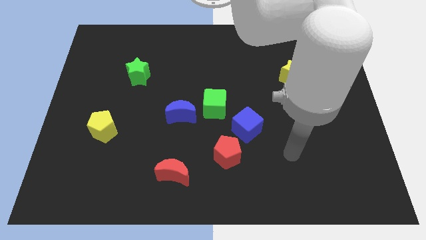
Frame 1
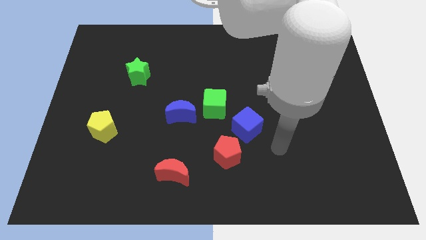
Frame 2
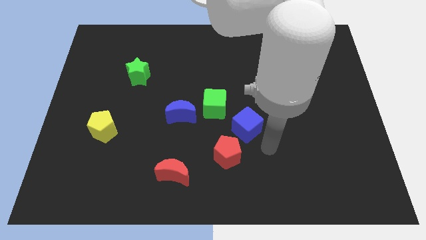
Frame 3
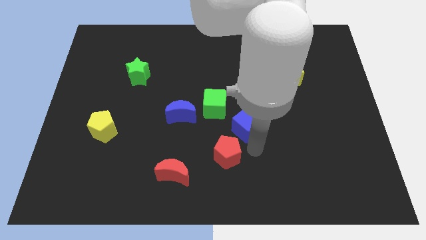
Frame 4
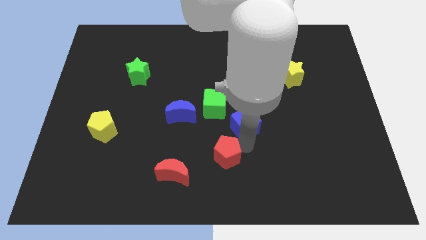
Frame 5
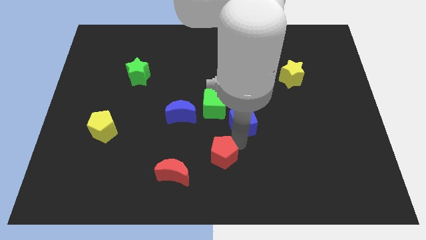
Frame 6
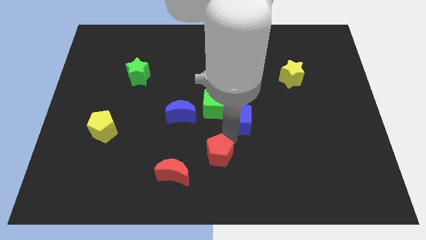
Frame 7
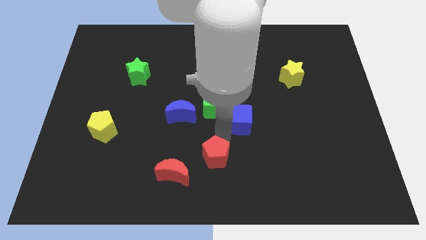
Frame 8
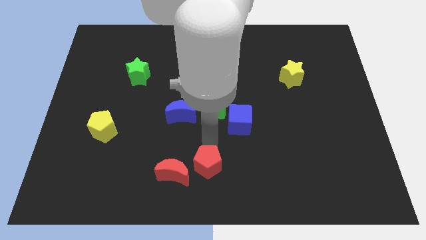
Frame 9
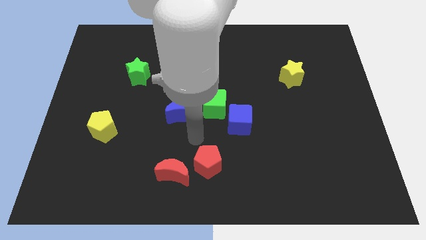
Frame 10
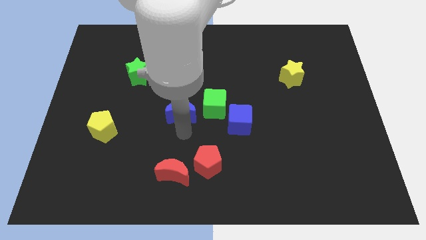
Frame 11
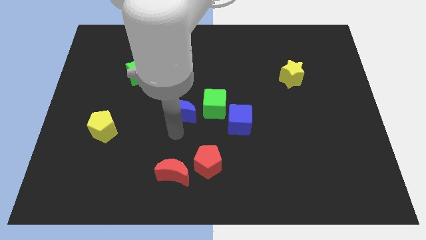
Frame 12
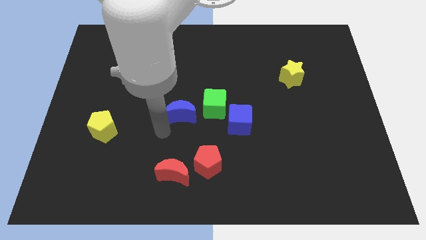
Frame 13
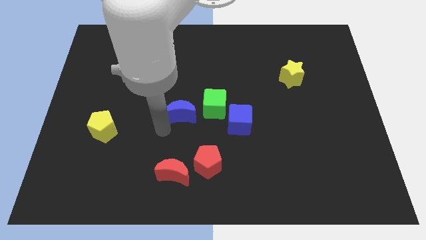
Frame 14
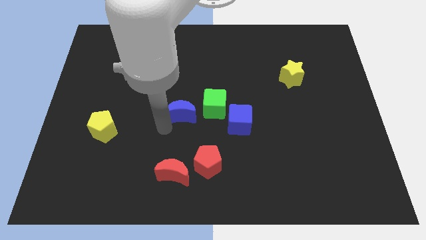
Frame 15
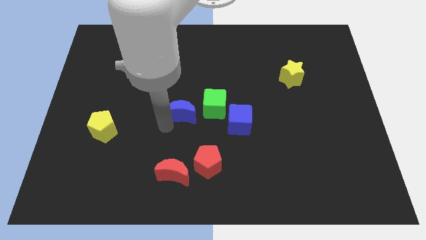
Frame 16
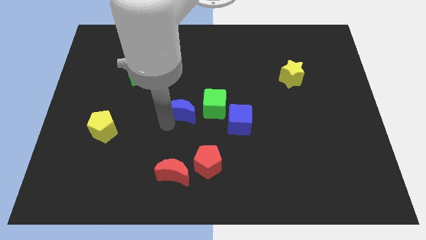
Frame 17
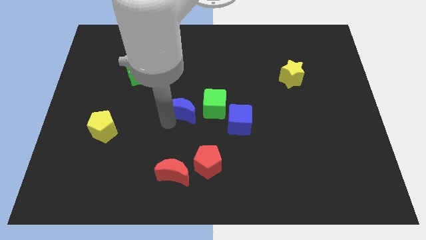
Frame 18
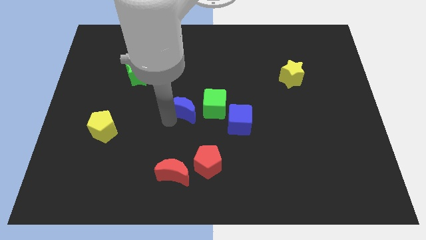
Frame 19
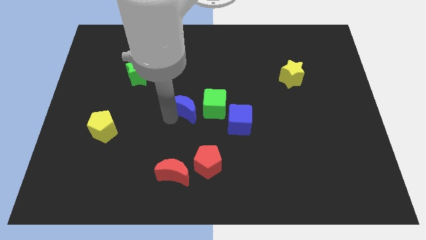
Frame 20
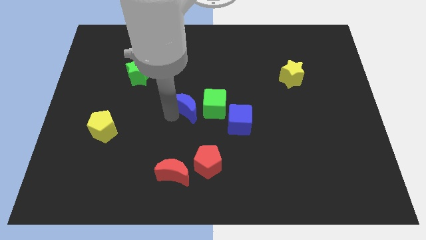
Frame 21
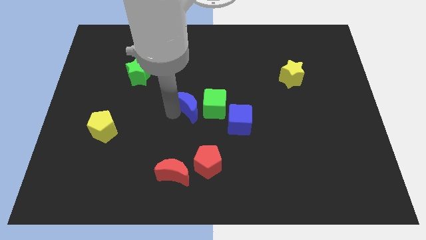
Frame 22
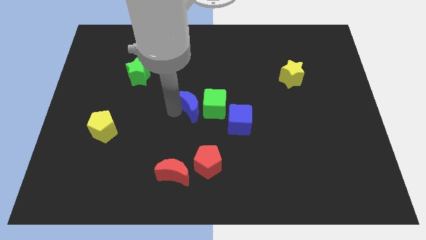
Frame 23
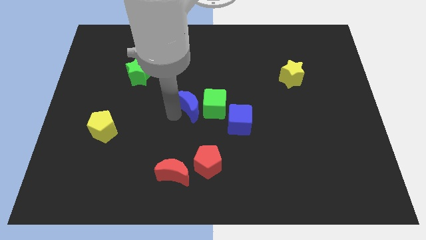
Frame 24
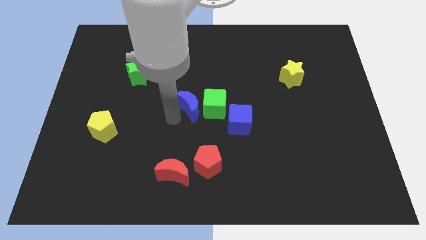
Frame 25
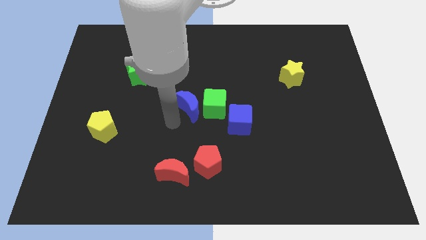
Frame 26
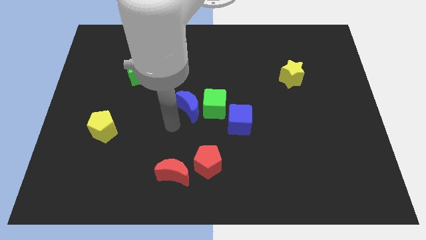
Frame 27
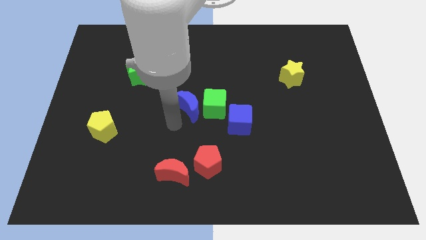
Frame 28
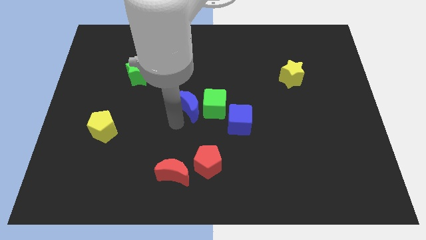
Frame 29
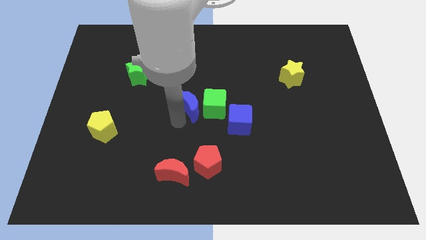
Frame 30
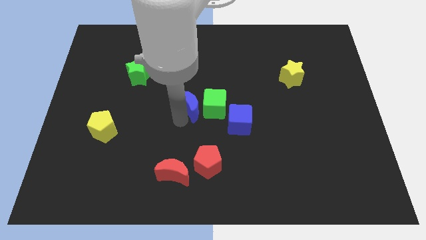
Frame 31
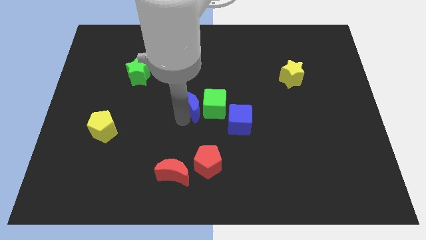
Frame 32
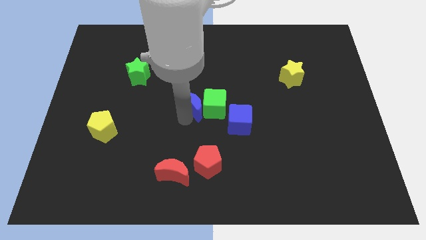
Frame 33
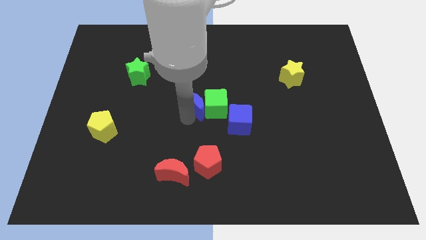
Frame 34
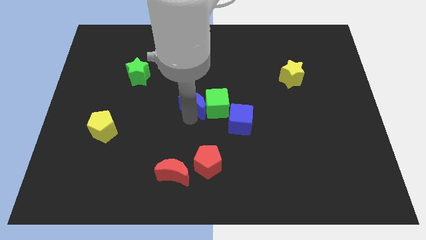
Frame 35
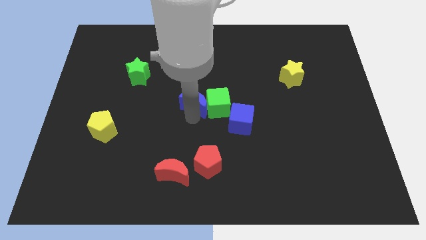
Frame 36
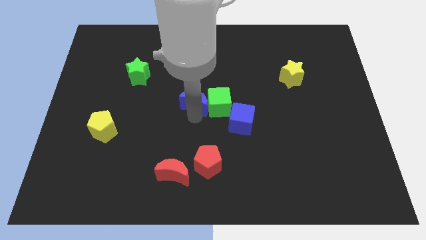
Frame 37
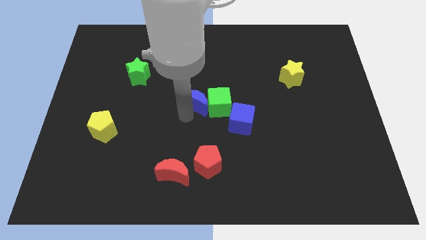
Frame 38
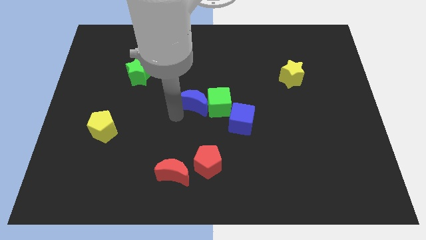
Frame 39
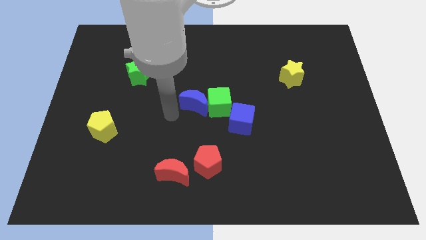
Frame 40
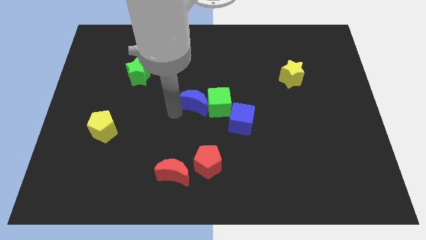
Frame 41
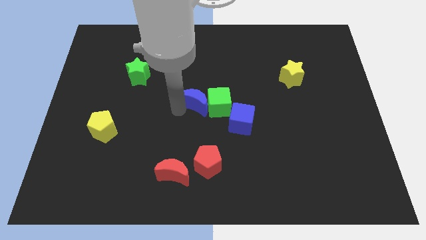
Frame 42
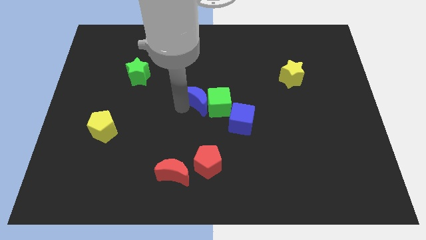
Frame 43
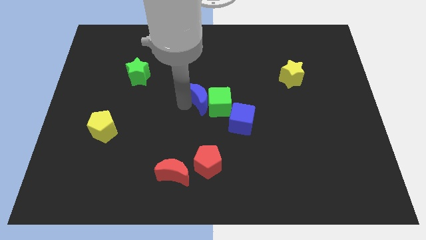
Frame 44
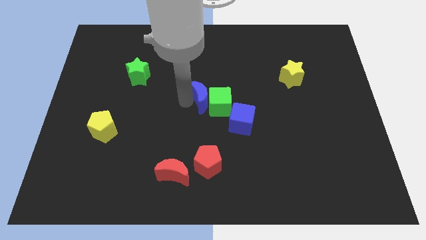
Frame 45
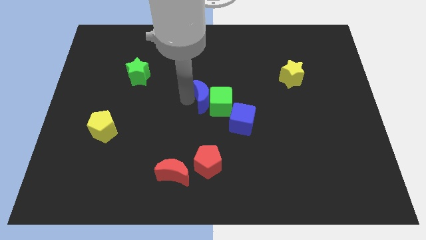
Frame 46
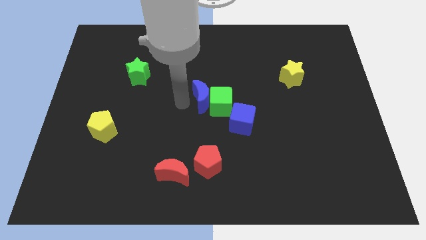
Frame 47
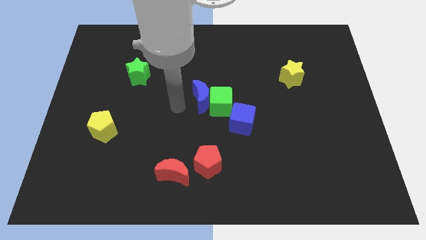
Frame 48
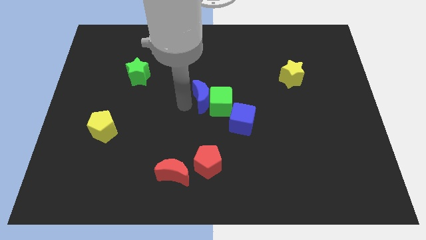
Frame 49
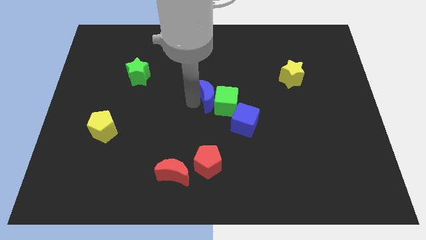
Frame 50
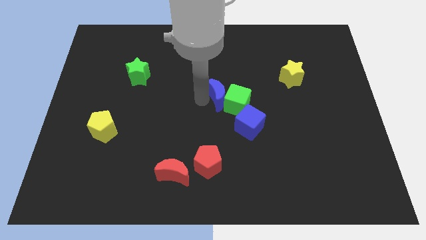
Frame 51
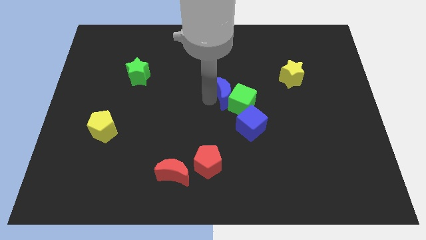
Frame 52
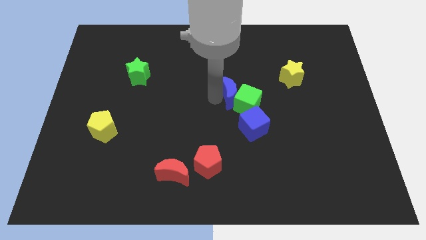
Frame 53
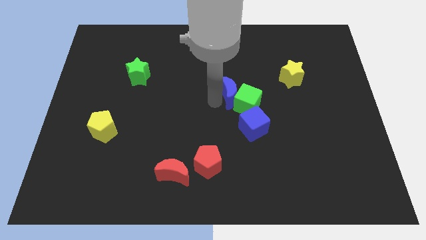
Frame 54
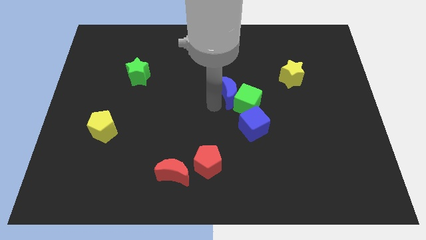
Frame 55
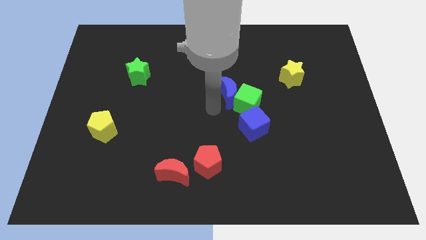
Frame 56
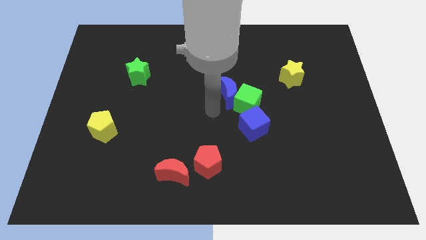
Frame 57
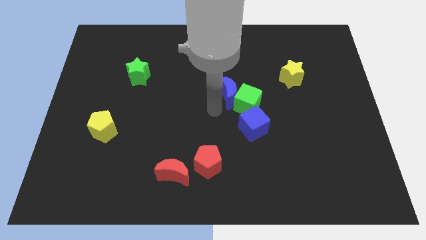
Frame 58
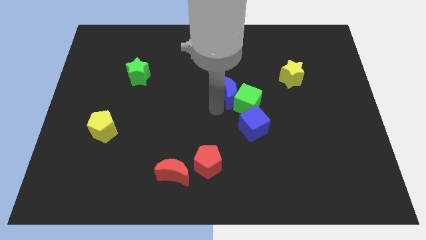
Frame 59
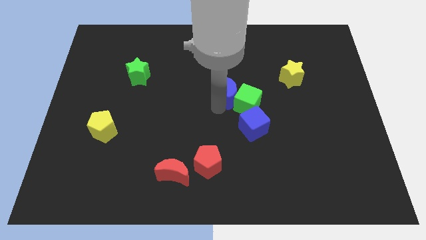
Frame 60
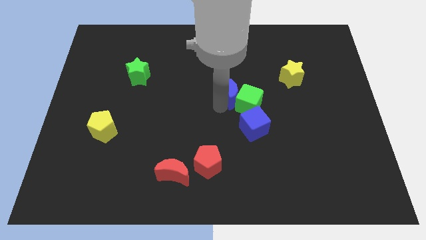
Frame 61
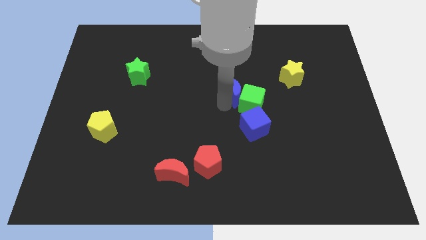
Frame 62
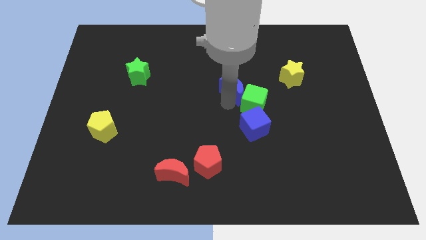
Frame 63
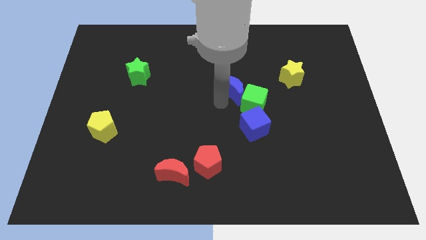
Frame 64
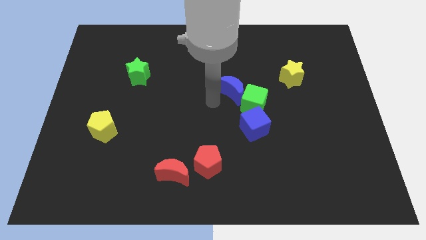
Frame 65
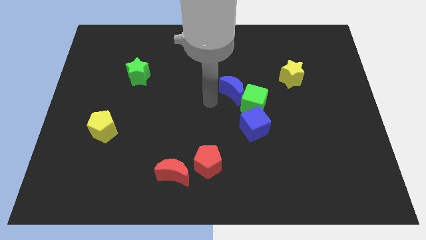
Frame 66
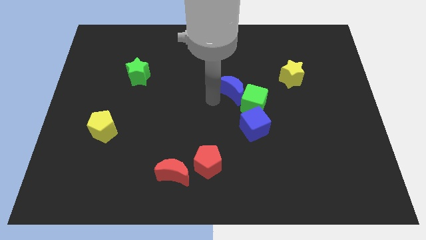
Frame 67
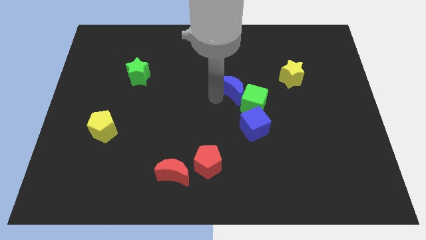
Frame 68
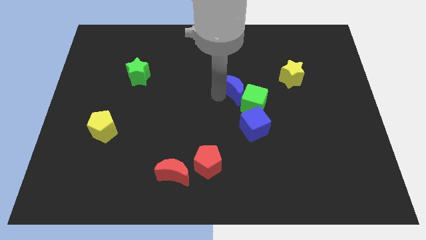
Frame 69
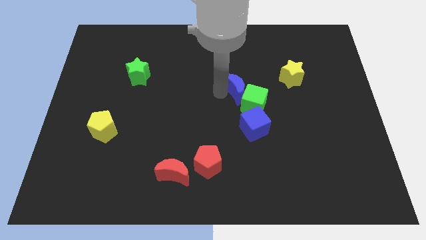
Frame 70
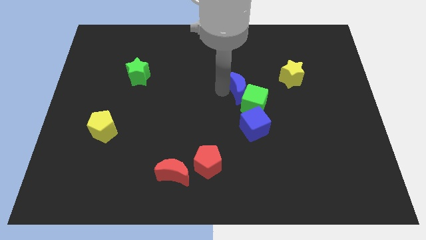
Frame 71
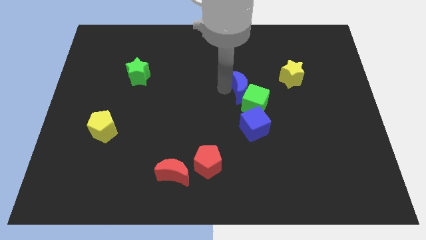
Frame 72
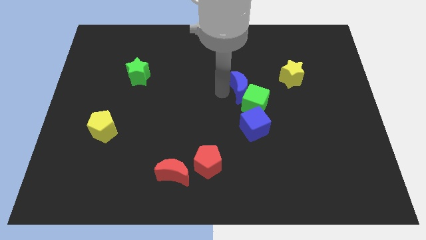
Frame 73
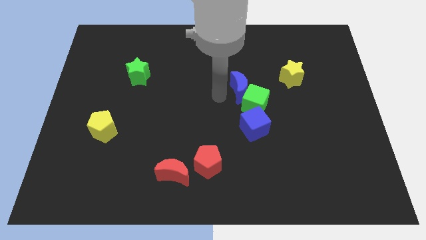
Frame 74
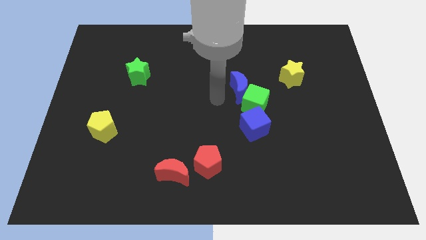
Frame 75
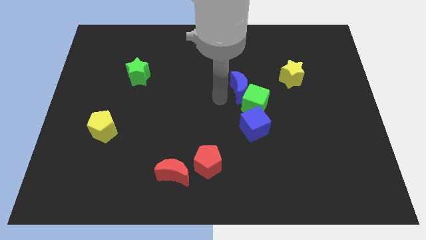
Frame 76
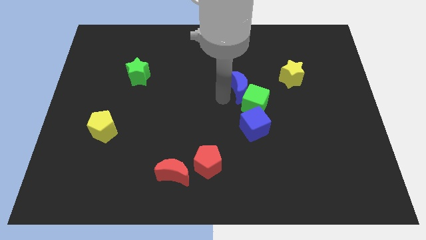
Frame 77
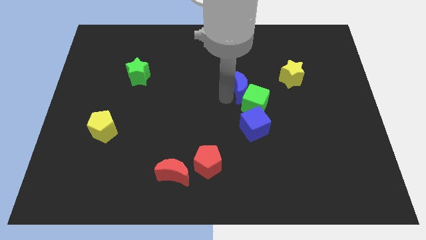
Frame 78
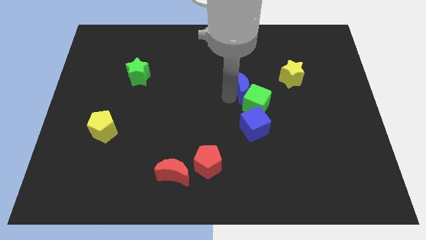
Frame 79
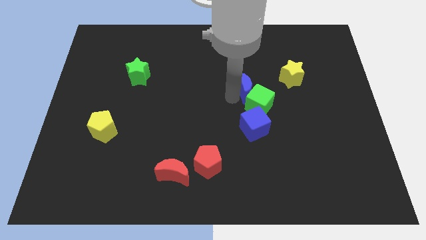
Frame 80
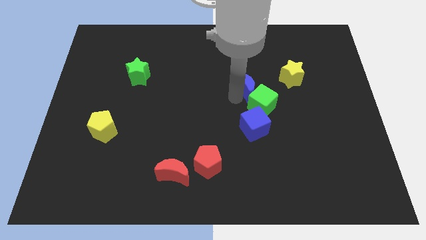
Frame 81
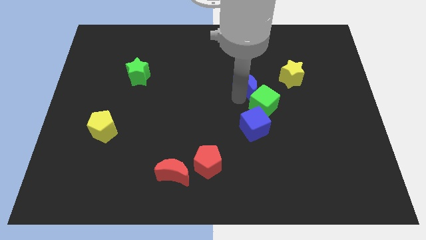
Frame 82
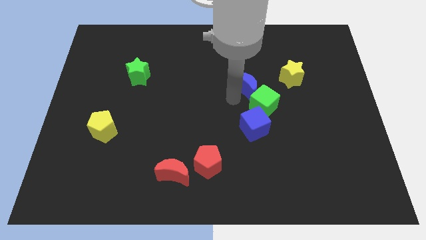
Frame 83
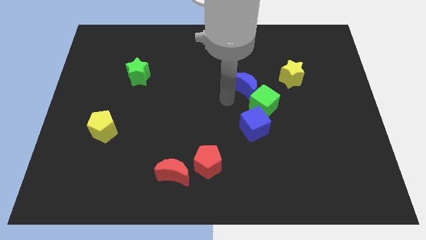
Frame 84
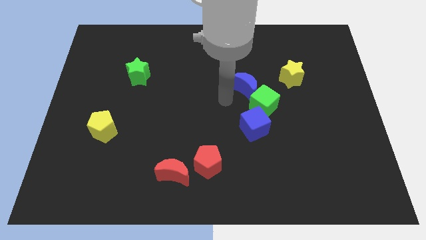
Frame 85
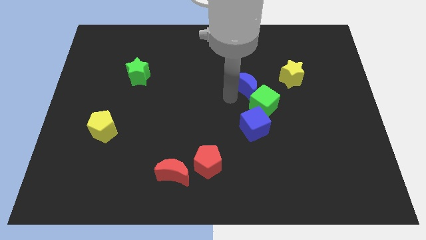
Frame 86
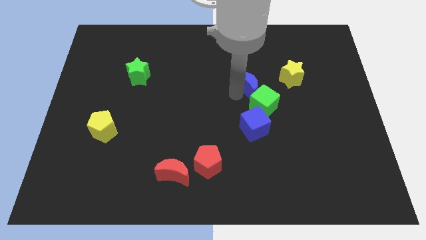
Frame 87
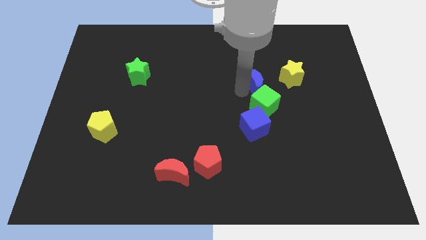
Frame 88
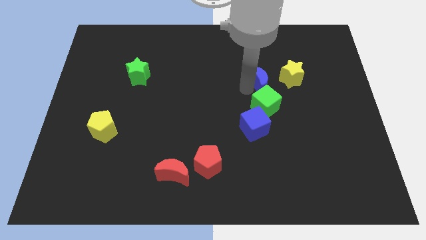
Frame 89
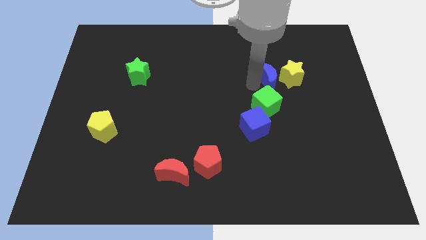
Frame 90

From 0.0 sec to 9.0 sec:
put the blue moon next to the yellow star
